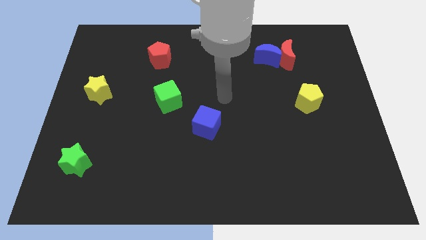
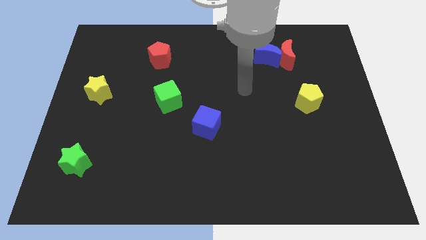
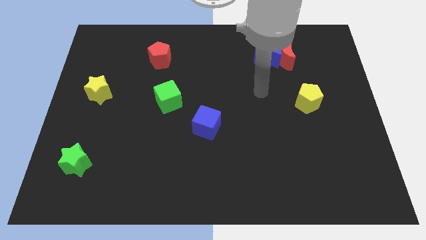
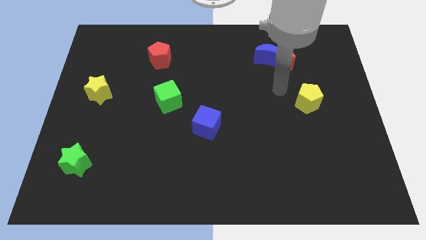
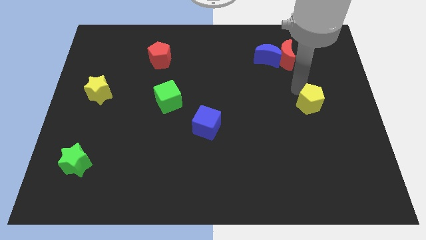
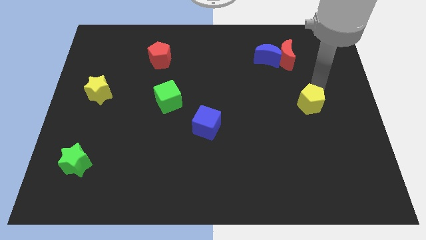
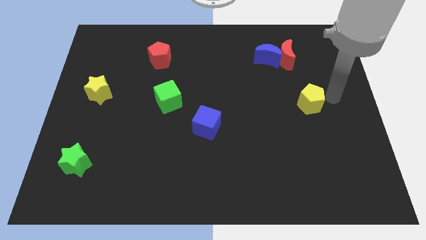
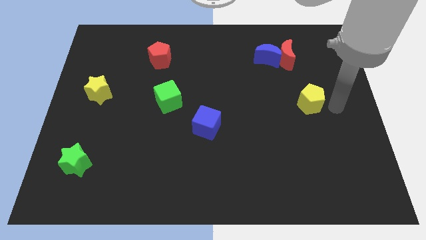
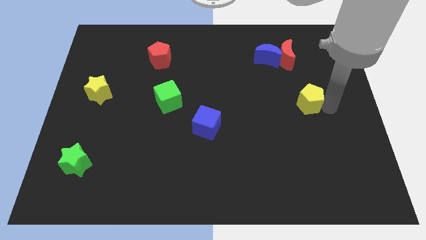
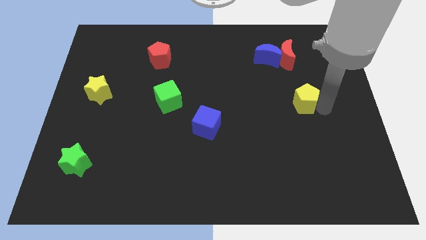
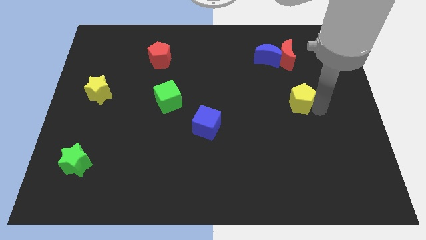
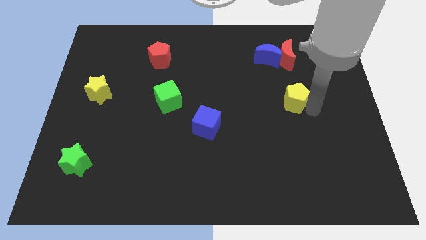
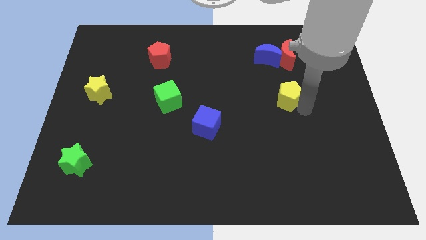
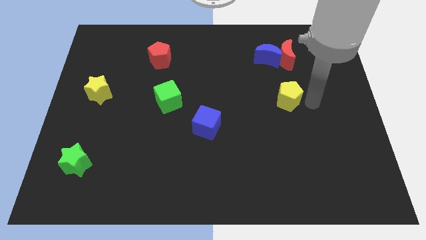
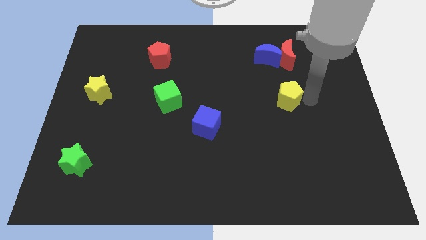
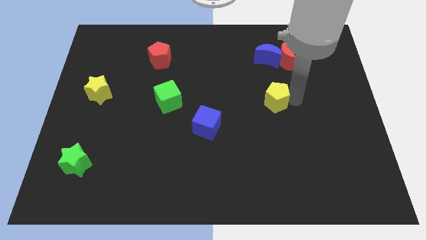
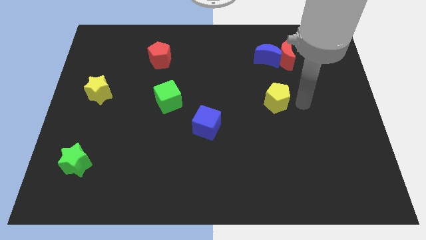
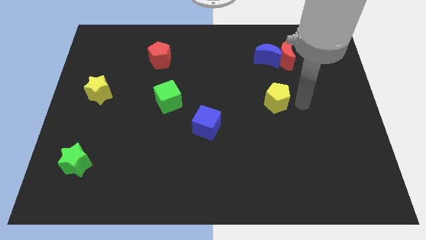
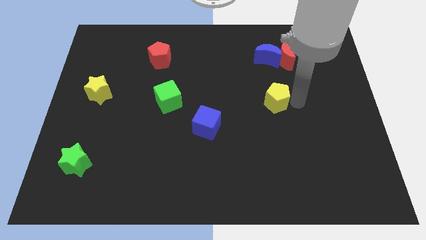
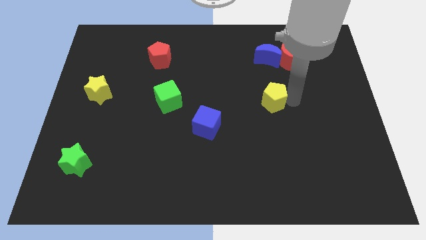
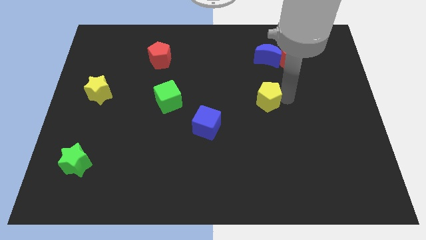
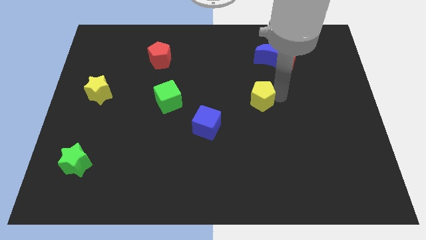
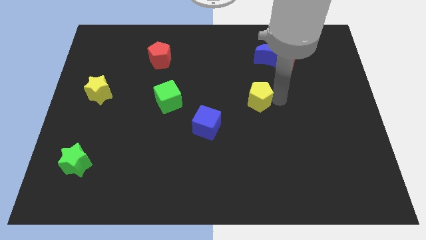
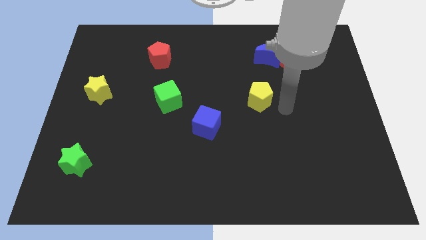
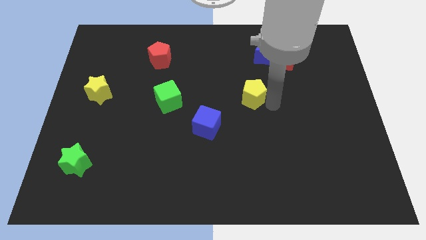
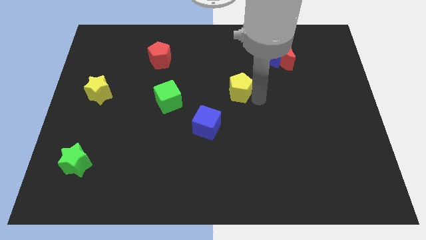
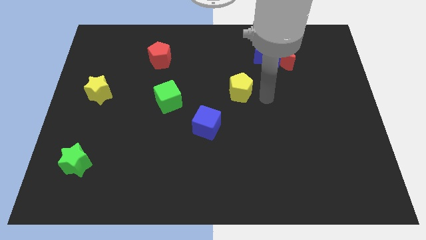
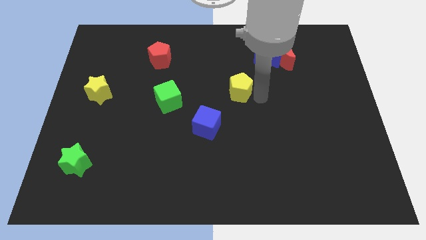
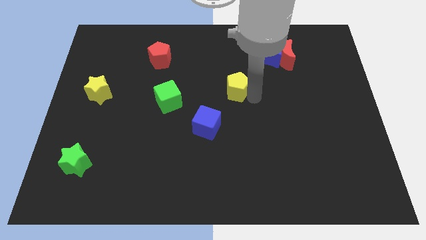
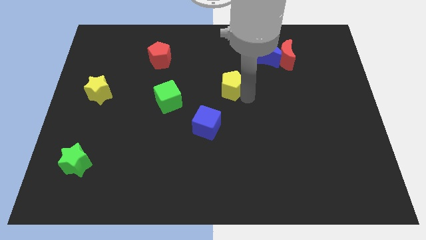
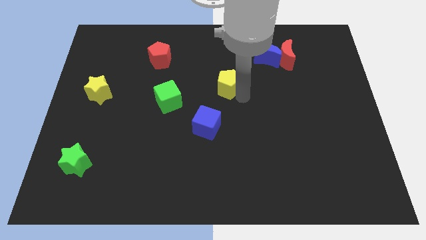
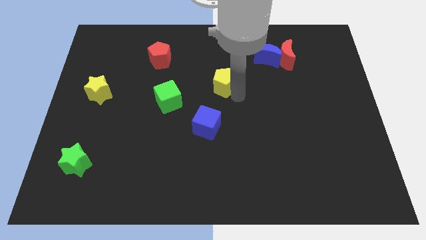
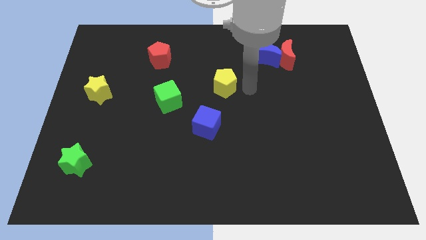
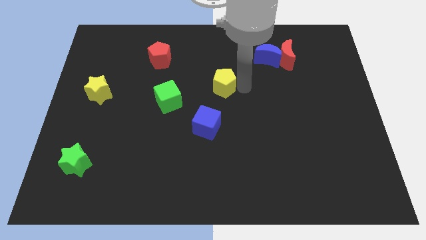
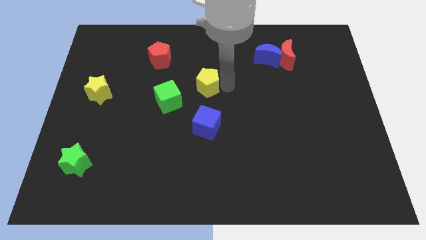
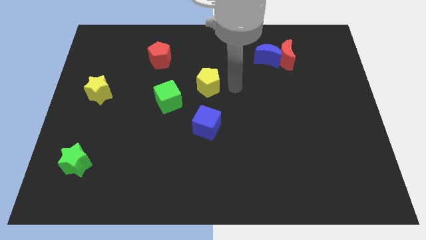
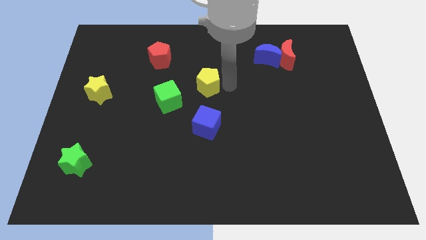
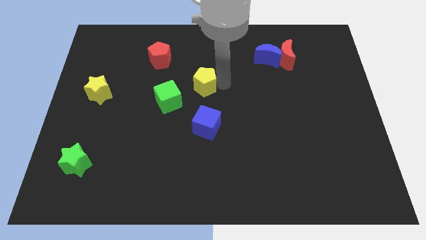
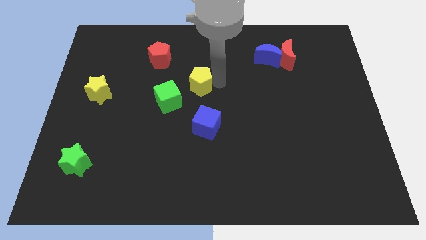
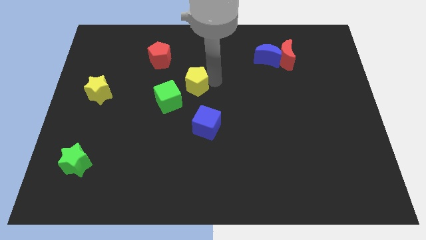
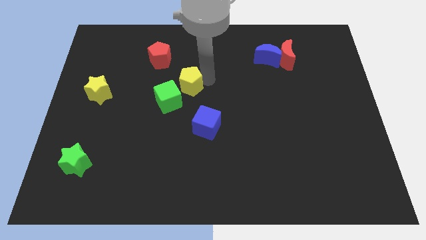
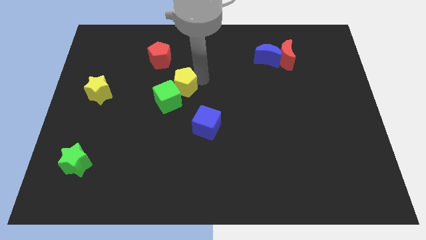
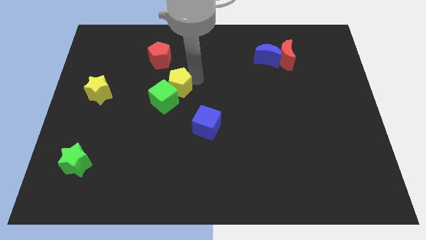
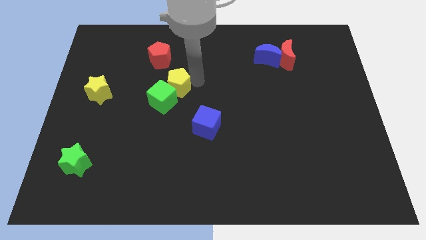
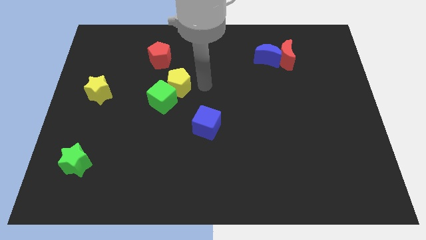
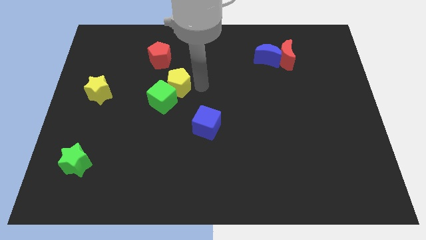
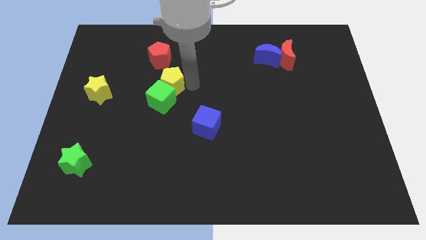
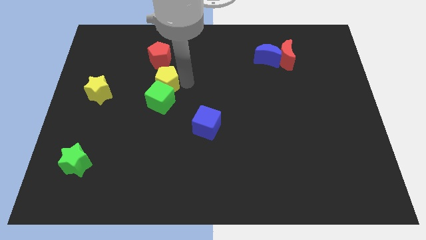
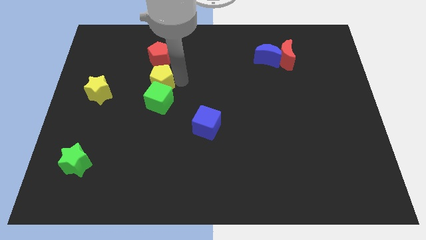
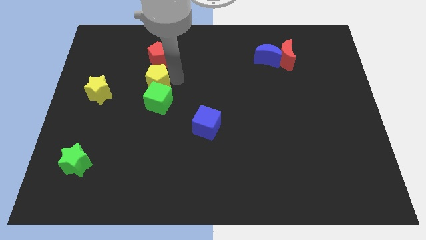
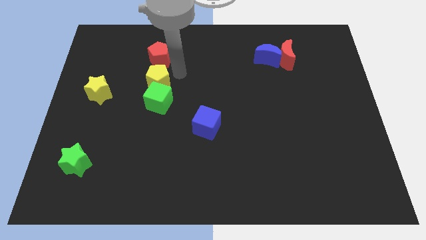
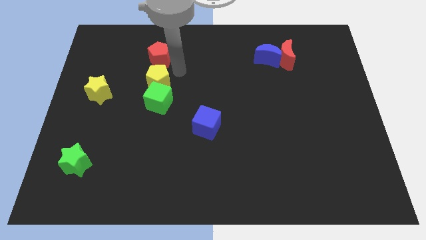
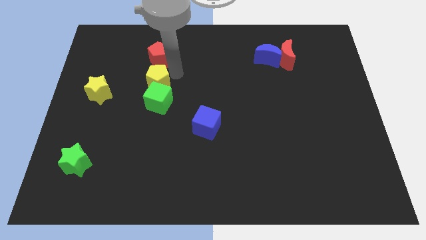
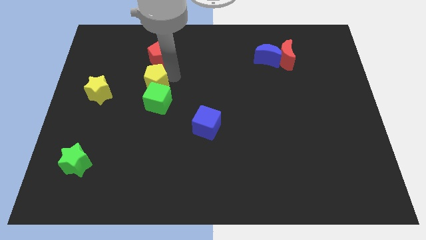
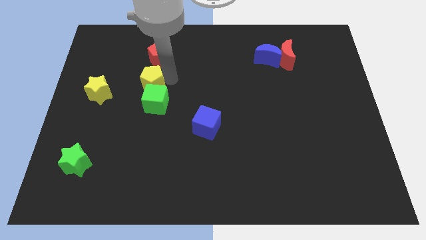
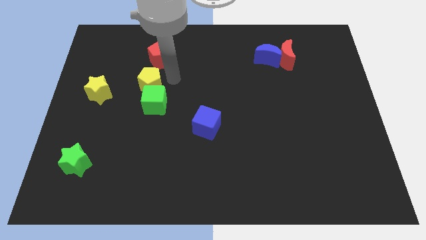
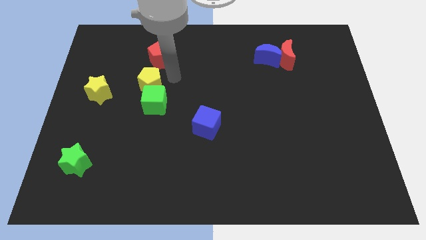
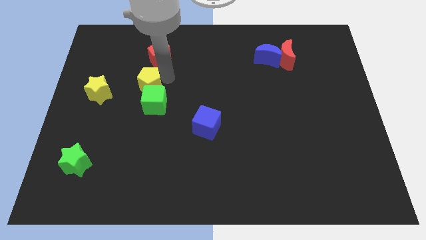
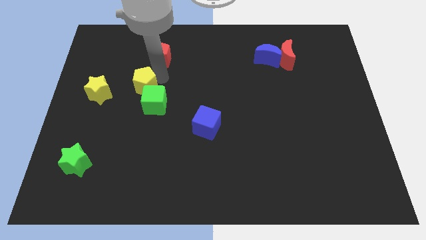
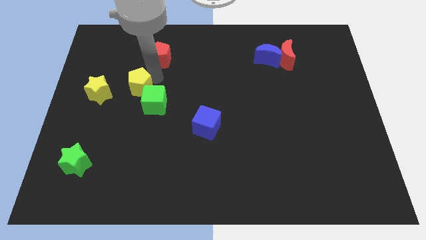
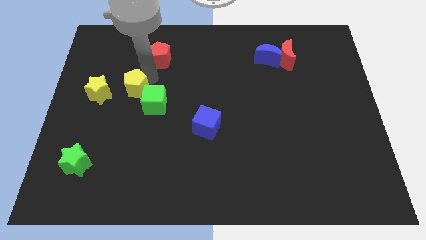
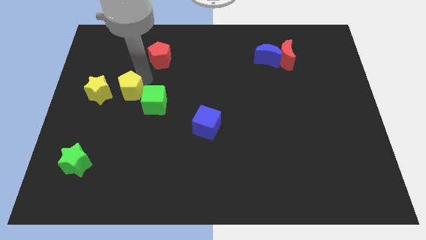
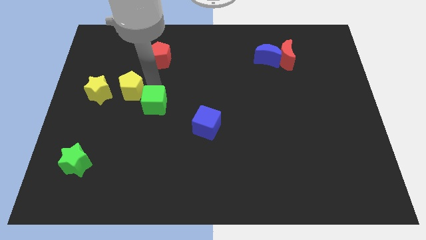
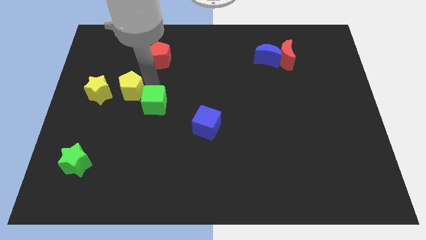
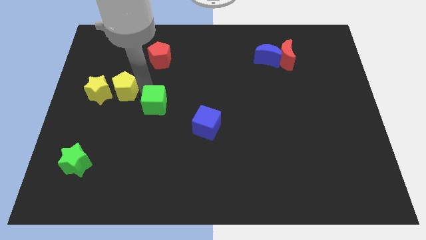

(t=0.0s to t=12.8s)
put the yellow pentagon close to the yellow star
